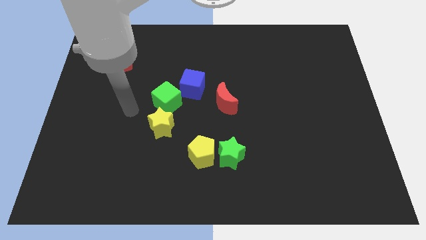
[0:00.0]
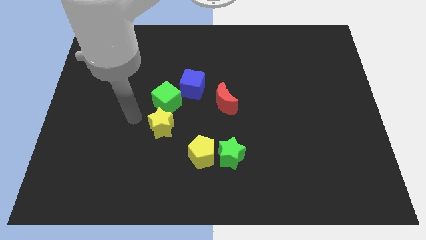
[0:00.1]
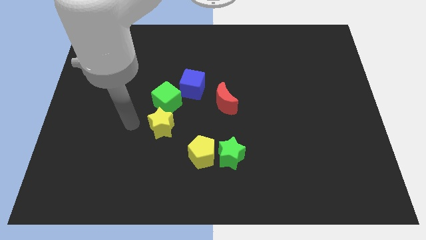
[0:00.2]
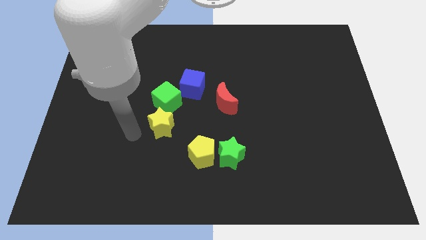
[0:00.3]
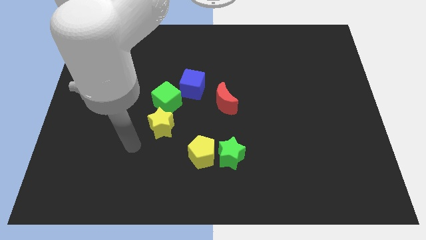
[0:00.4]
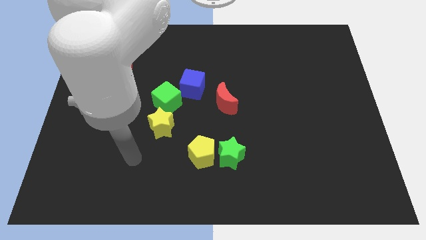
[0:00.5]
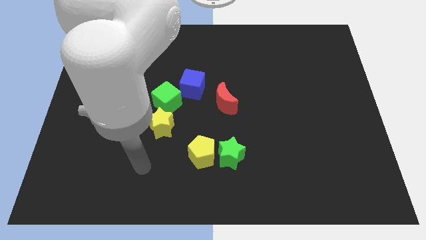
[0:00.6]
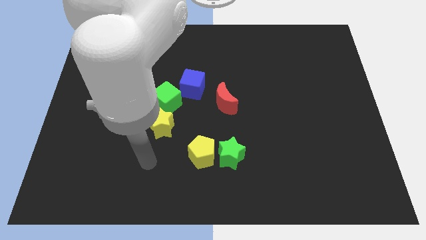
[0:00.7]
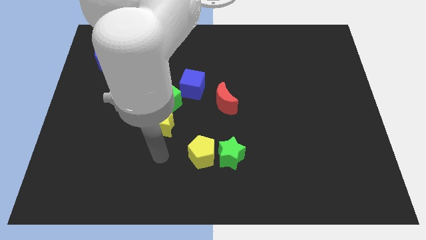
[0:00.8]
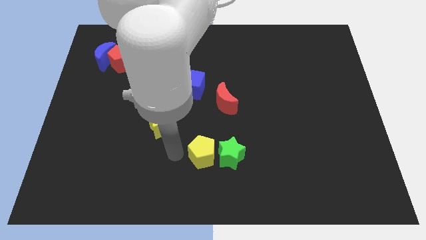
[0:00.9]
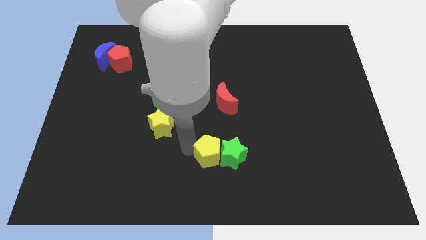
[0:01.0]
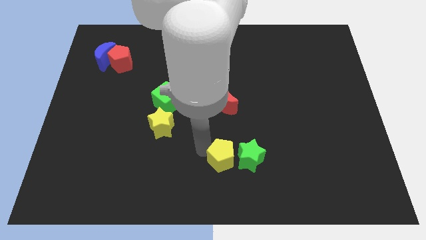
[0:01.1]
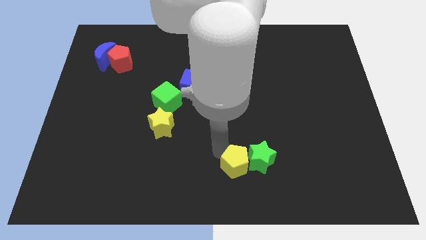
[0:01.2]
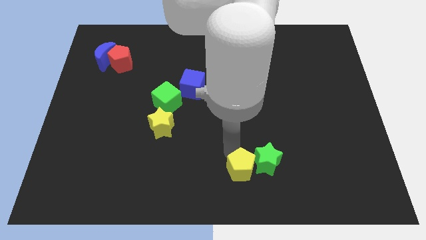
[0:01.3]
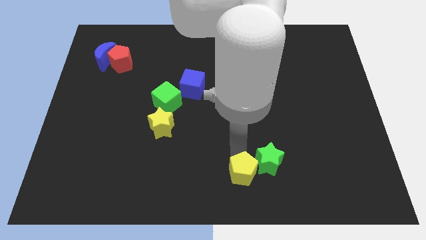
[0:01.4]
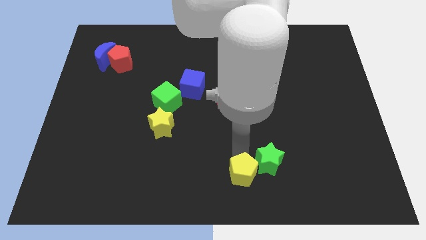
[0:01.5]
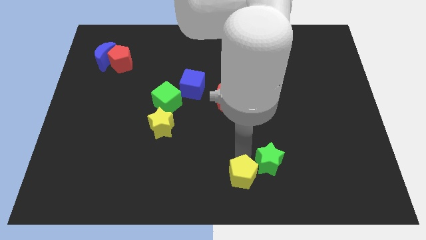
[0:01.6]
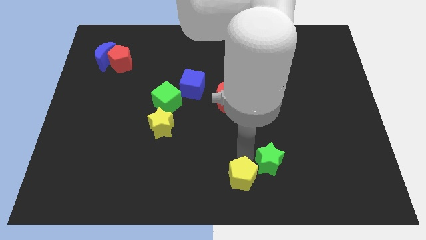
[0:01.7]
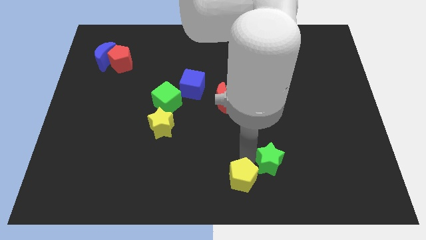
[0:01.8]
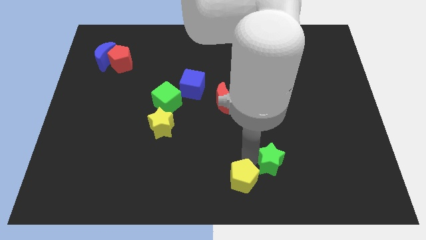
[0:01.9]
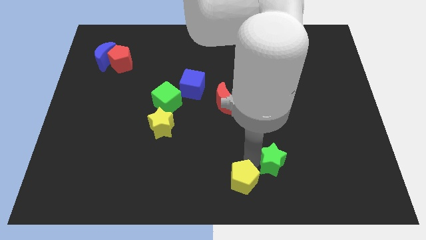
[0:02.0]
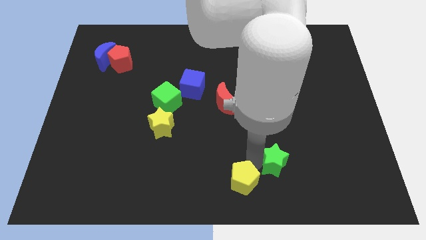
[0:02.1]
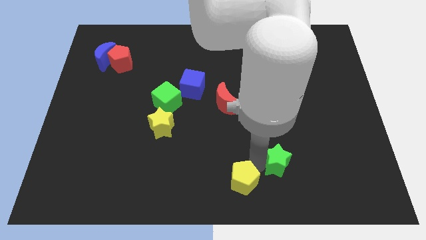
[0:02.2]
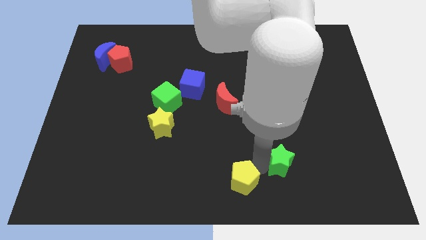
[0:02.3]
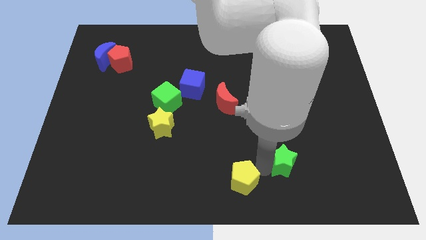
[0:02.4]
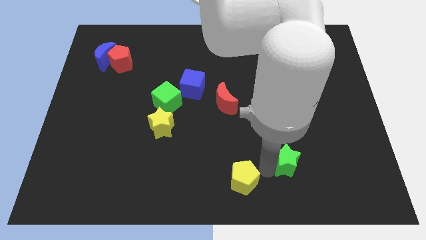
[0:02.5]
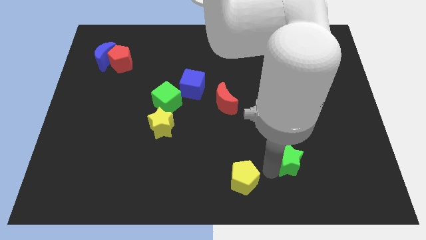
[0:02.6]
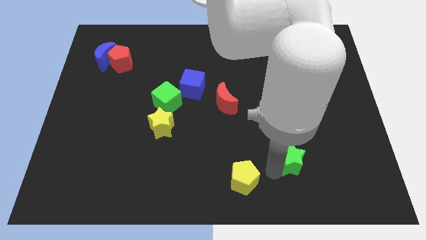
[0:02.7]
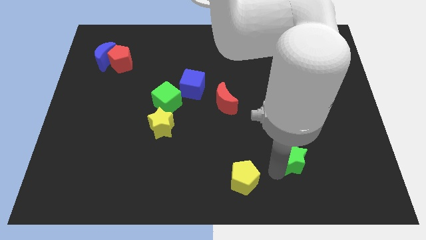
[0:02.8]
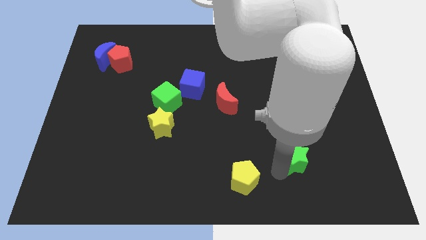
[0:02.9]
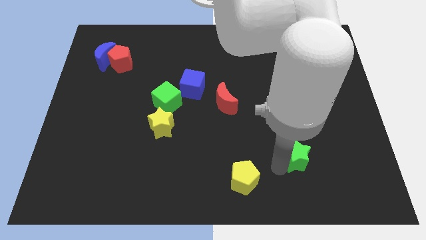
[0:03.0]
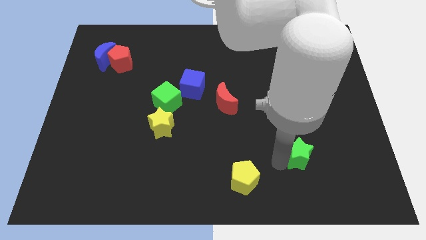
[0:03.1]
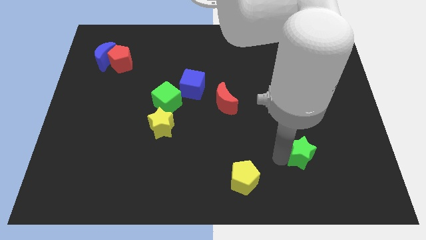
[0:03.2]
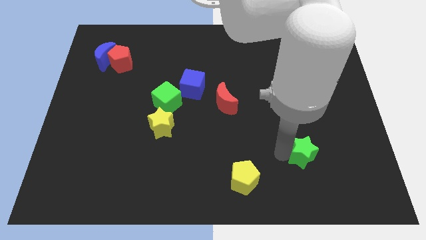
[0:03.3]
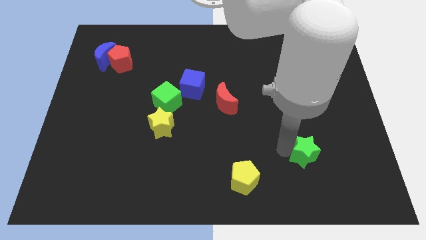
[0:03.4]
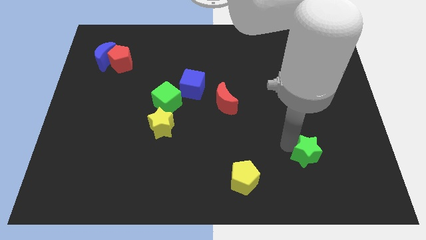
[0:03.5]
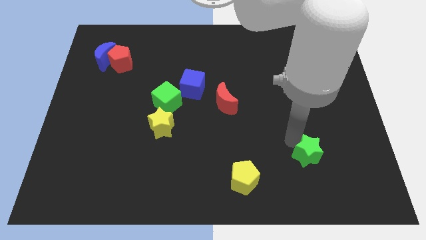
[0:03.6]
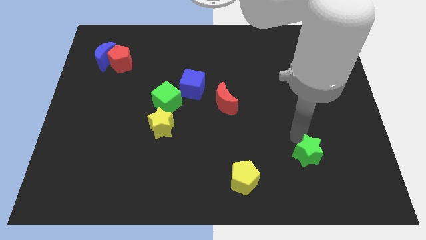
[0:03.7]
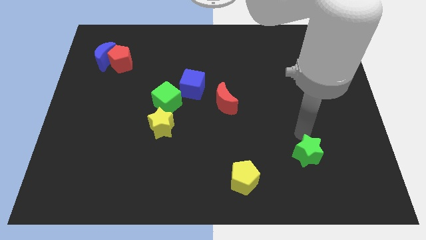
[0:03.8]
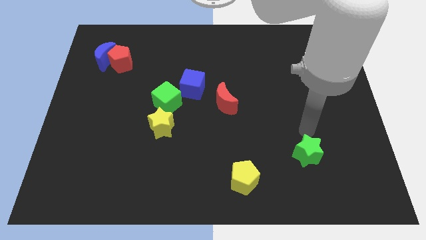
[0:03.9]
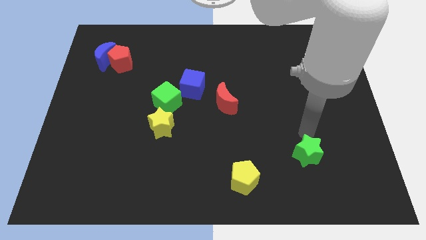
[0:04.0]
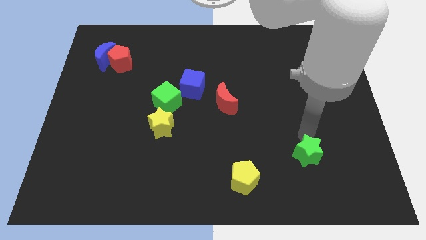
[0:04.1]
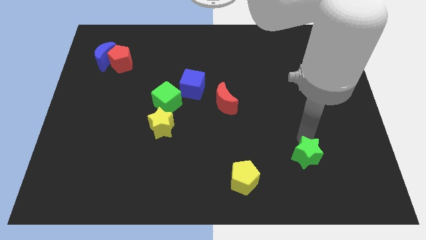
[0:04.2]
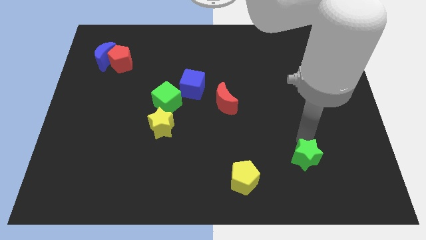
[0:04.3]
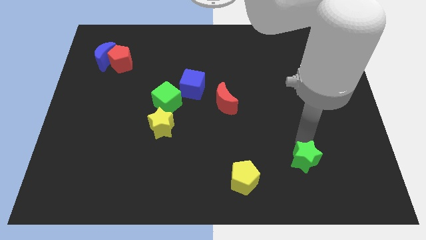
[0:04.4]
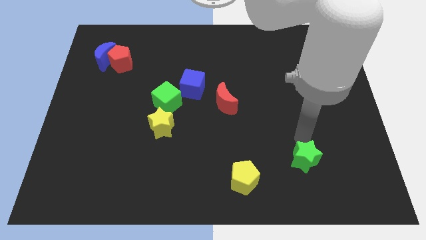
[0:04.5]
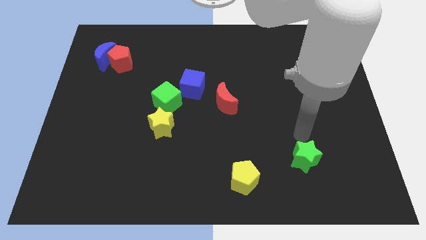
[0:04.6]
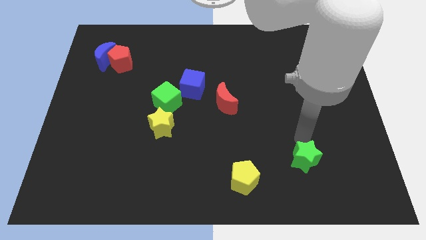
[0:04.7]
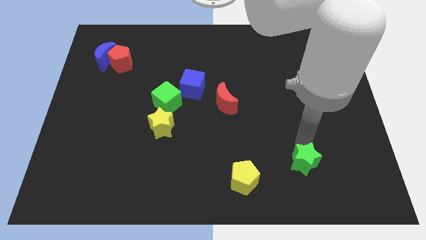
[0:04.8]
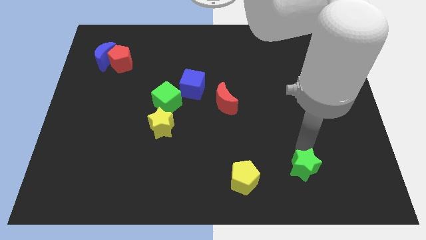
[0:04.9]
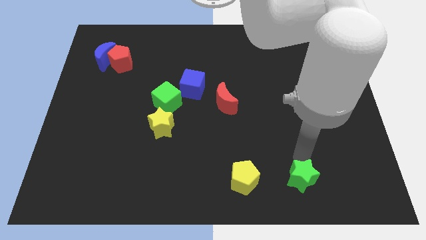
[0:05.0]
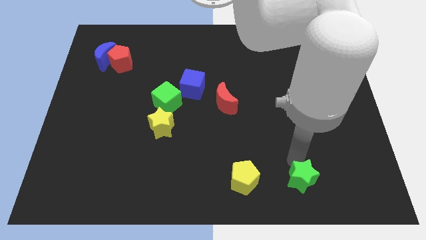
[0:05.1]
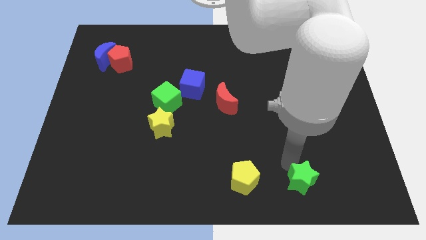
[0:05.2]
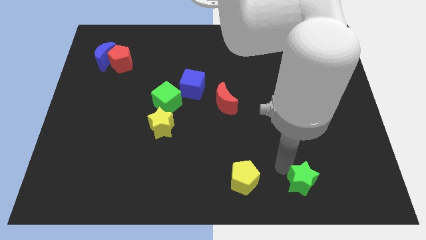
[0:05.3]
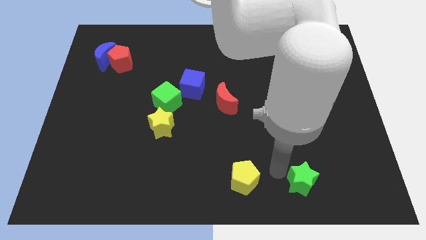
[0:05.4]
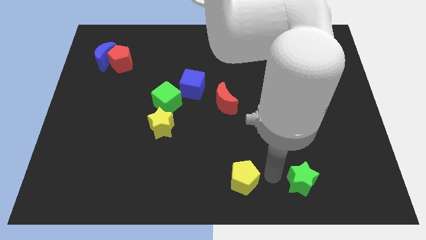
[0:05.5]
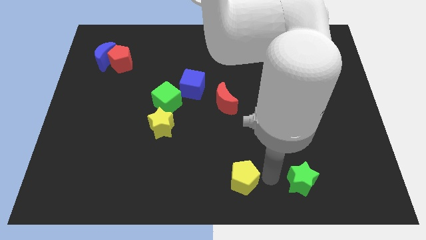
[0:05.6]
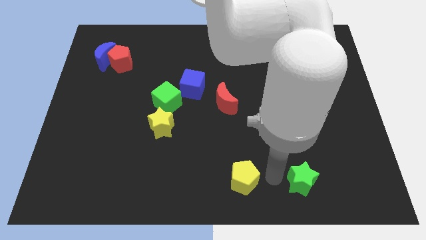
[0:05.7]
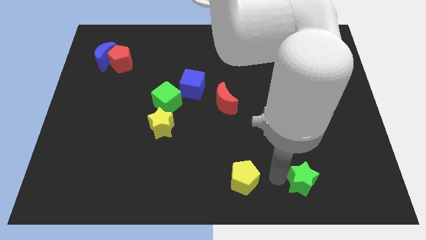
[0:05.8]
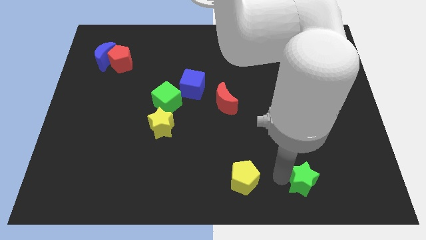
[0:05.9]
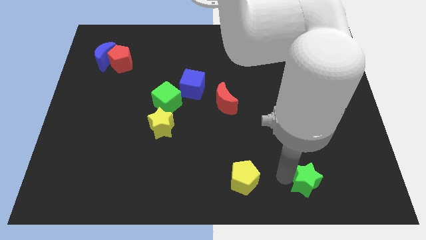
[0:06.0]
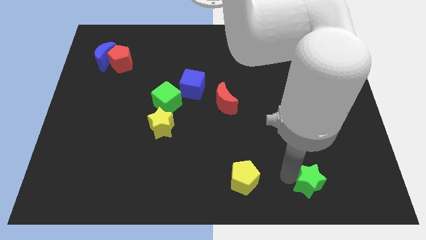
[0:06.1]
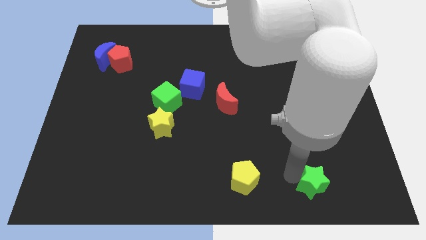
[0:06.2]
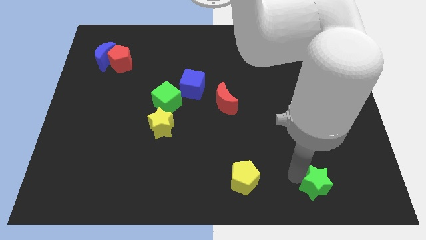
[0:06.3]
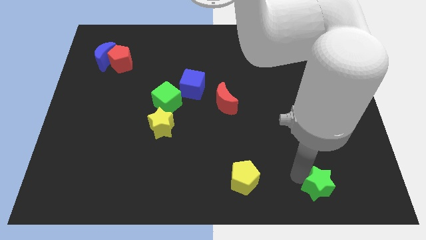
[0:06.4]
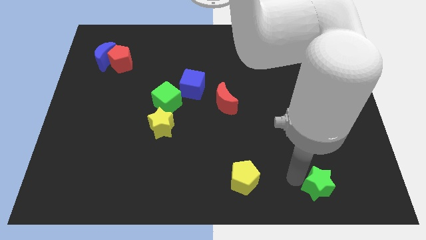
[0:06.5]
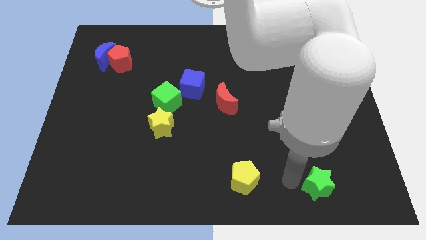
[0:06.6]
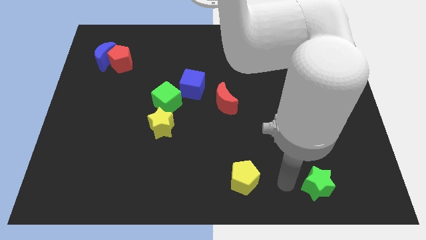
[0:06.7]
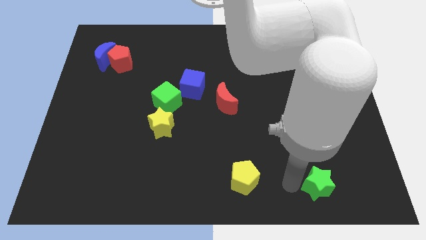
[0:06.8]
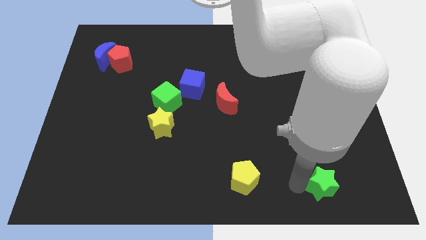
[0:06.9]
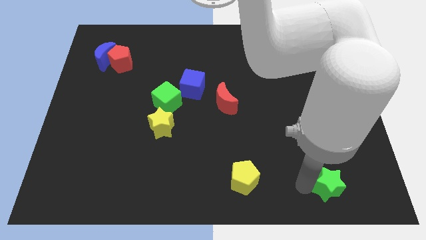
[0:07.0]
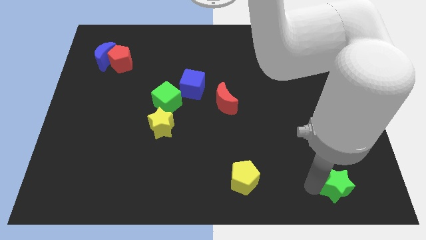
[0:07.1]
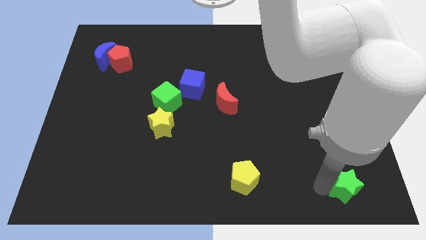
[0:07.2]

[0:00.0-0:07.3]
move the green star to the bottom right
